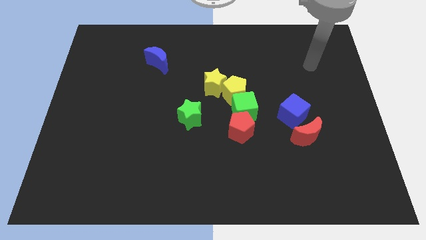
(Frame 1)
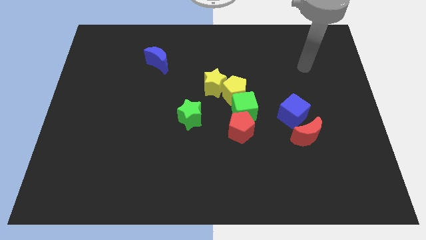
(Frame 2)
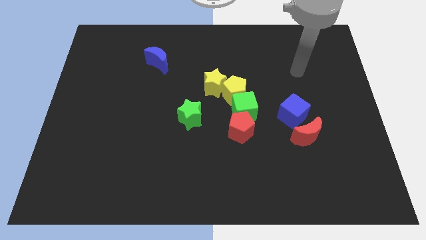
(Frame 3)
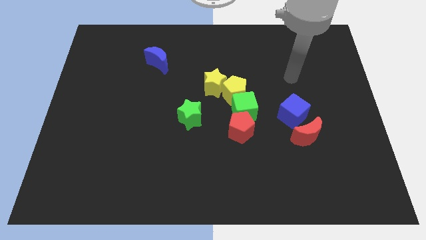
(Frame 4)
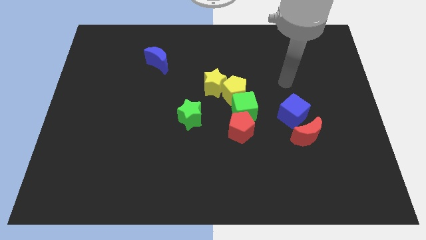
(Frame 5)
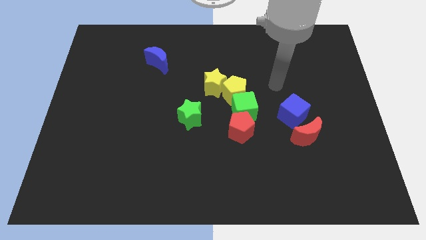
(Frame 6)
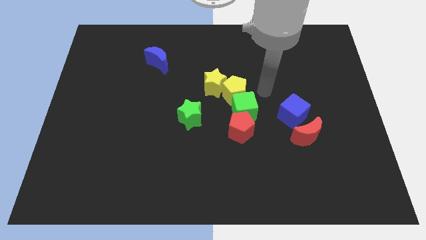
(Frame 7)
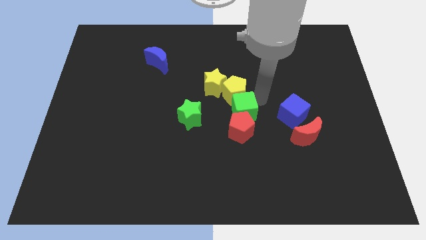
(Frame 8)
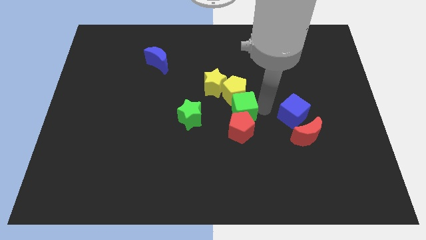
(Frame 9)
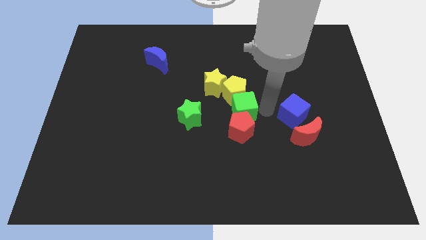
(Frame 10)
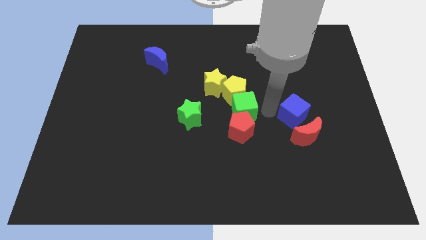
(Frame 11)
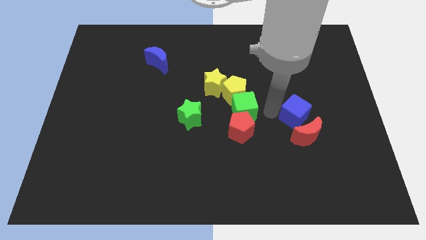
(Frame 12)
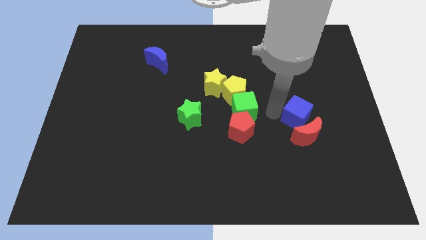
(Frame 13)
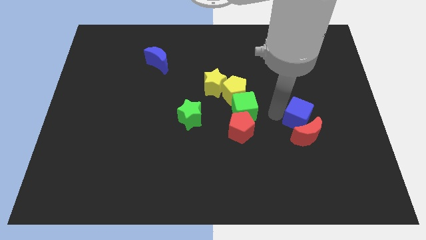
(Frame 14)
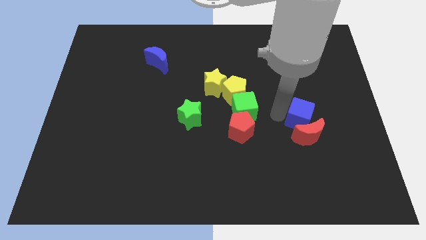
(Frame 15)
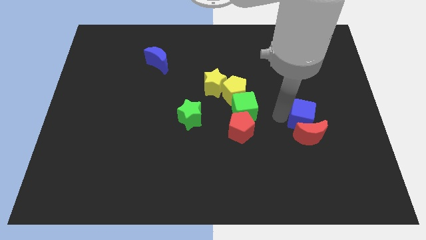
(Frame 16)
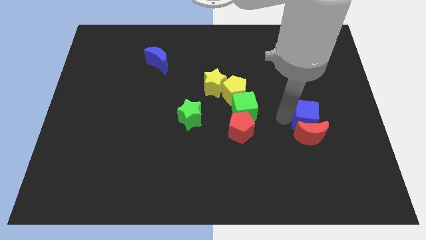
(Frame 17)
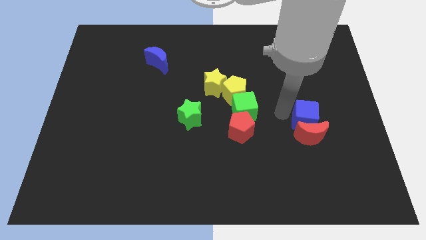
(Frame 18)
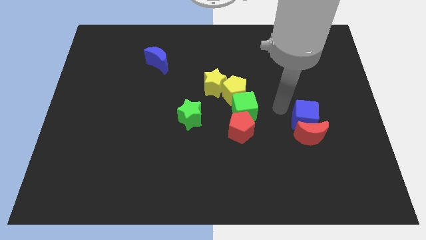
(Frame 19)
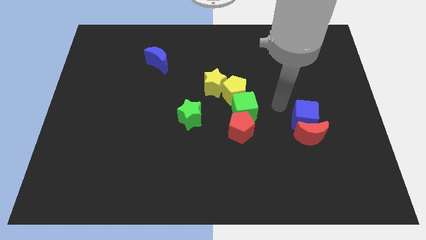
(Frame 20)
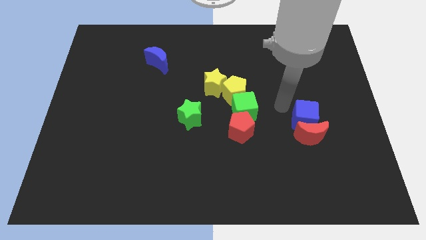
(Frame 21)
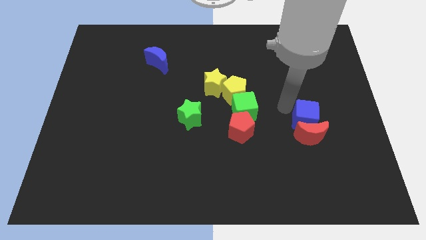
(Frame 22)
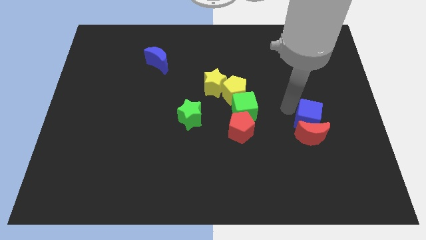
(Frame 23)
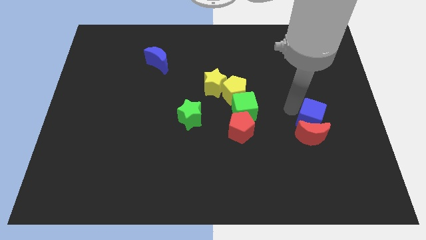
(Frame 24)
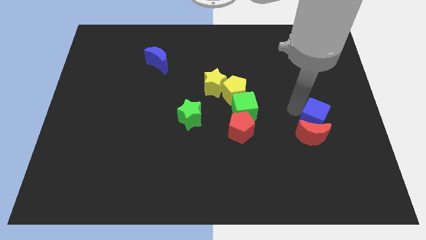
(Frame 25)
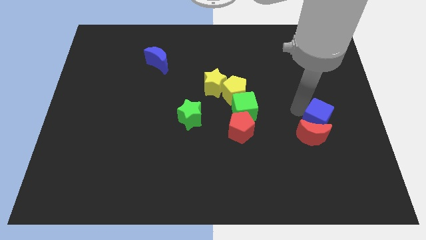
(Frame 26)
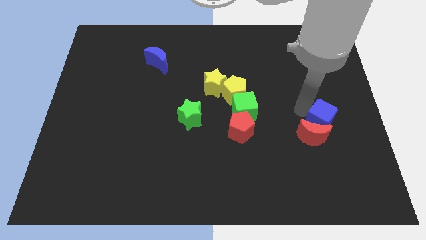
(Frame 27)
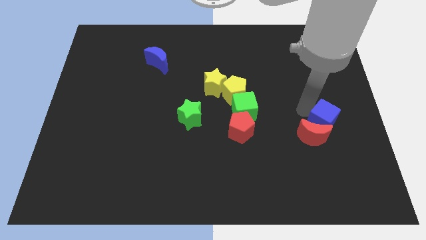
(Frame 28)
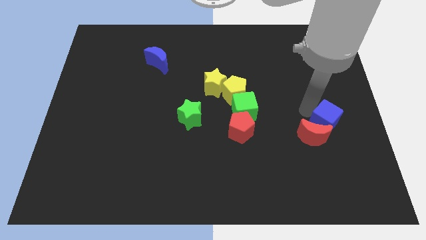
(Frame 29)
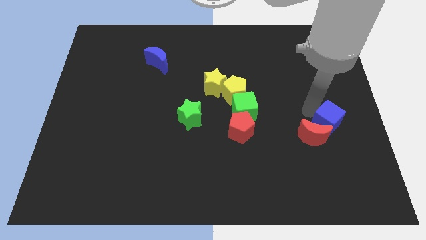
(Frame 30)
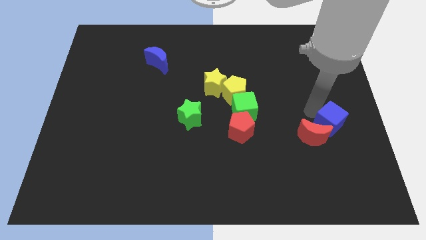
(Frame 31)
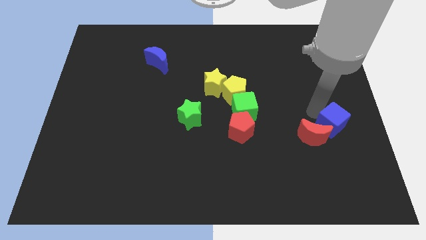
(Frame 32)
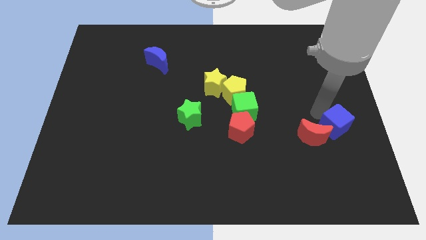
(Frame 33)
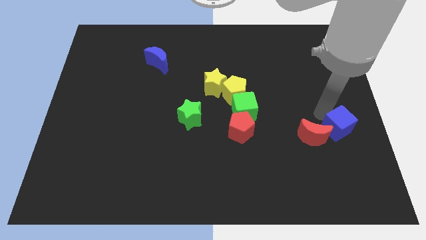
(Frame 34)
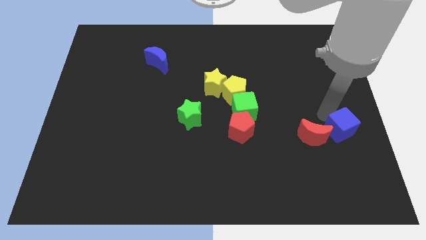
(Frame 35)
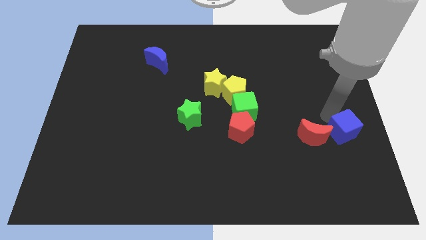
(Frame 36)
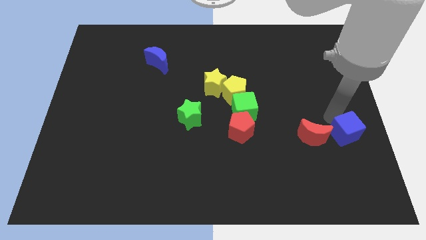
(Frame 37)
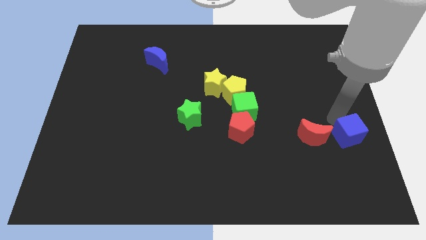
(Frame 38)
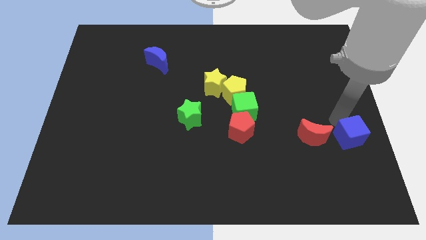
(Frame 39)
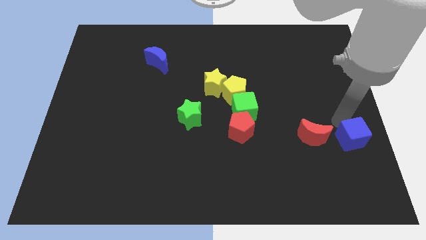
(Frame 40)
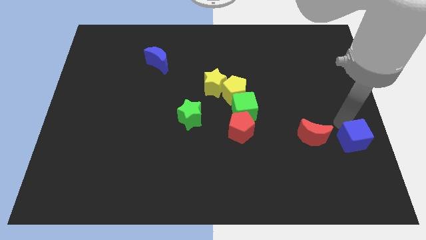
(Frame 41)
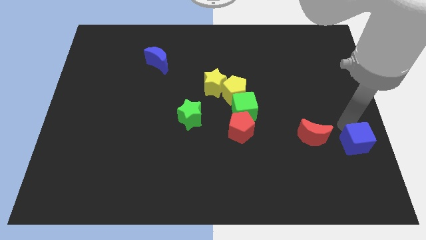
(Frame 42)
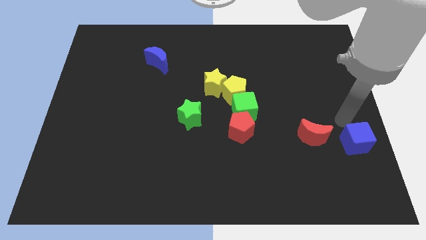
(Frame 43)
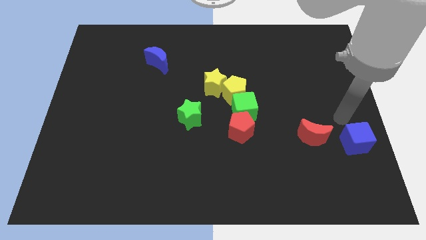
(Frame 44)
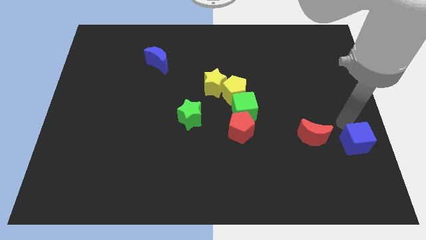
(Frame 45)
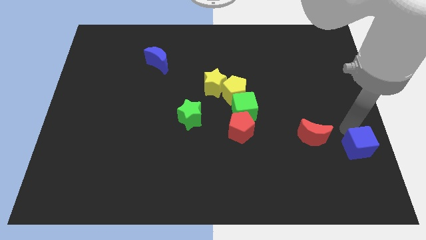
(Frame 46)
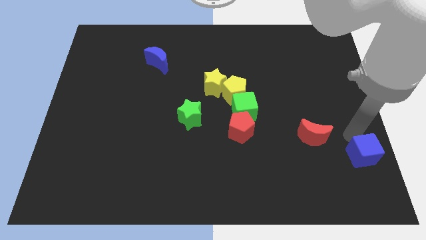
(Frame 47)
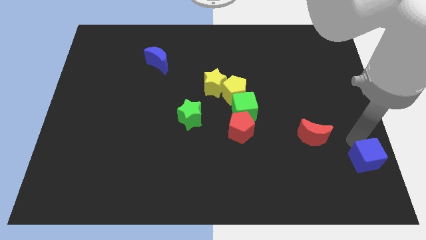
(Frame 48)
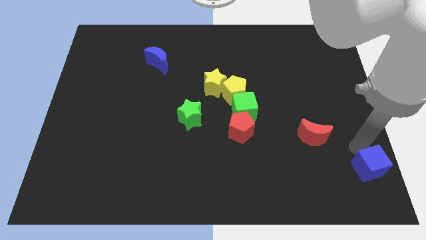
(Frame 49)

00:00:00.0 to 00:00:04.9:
put the blue cube to the bottom right corner

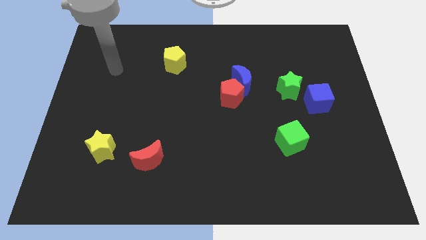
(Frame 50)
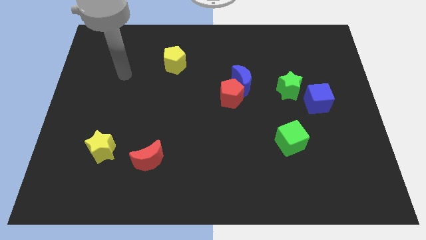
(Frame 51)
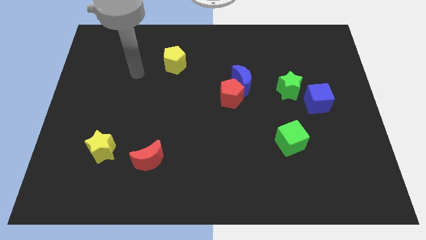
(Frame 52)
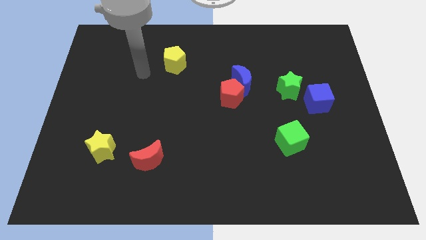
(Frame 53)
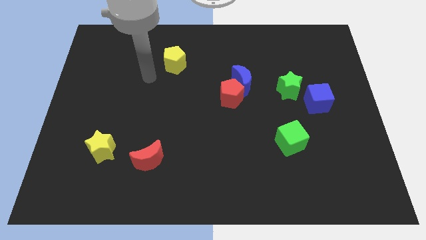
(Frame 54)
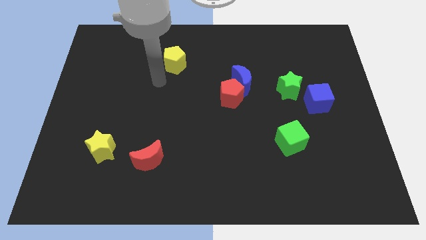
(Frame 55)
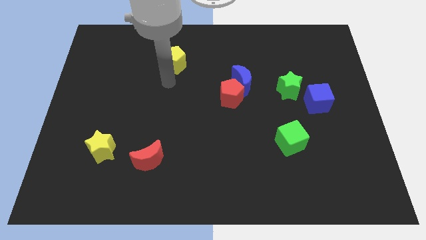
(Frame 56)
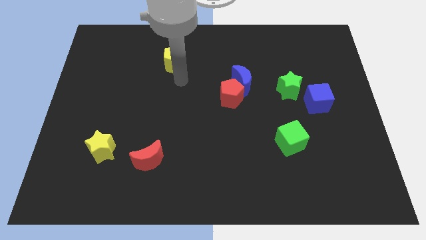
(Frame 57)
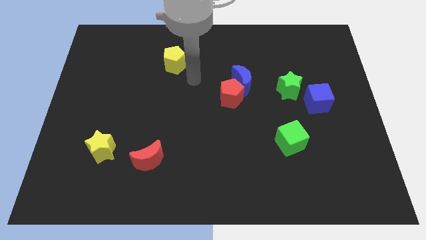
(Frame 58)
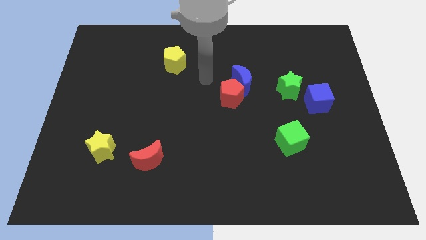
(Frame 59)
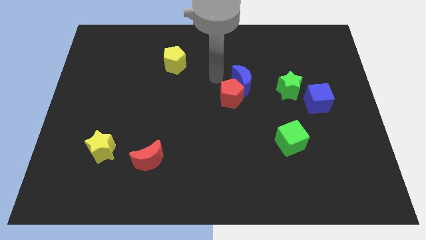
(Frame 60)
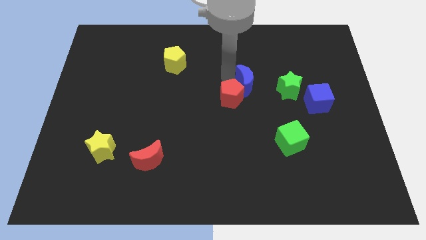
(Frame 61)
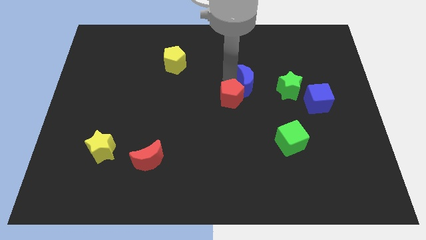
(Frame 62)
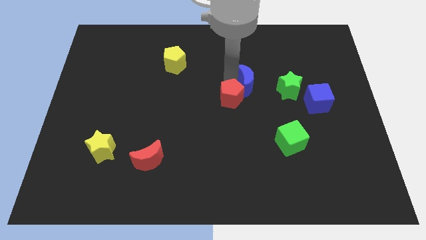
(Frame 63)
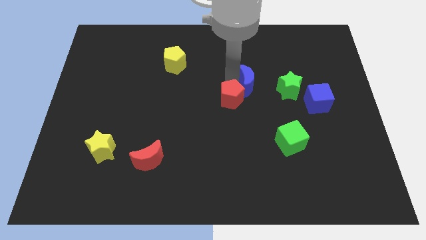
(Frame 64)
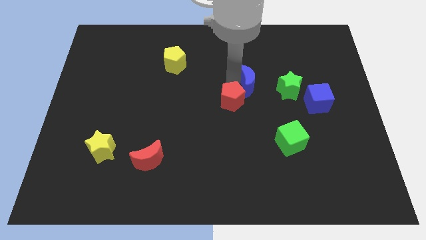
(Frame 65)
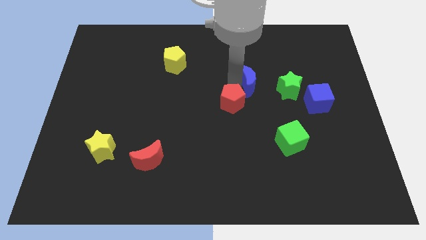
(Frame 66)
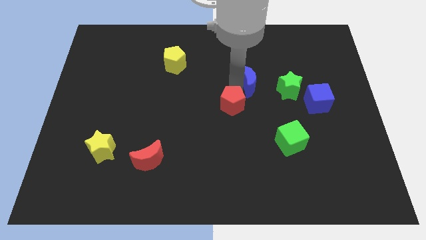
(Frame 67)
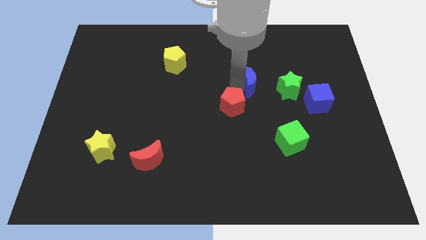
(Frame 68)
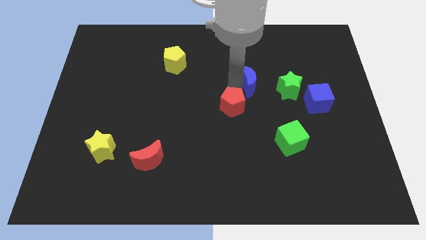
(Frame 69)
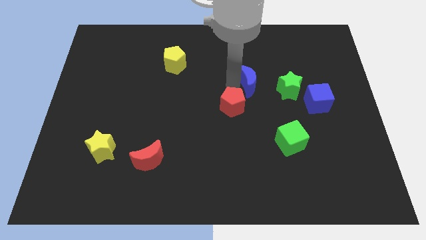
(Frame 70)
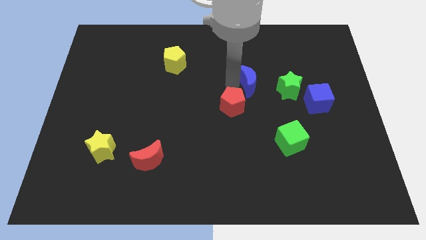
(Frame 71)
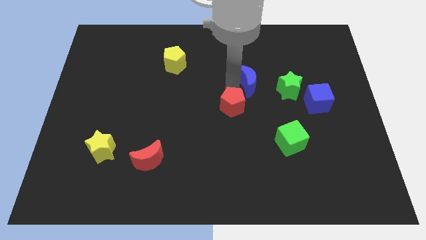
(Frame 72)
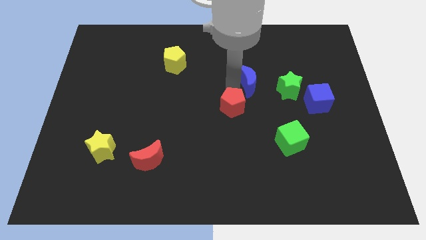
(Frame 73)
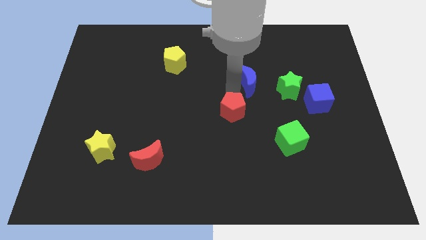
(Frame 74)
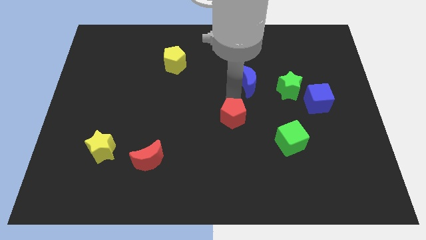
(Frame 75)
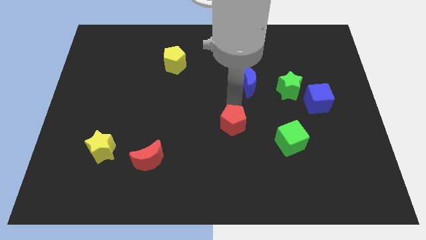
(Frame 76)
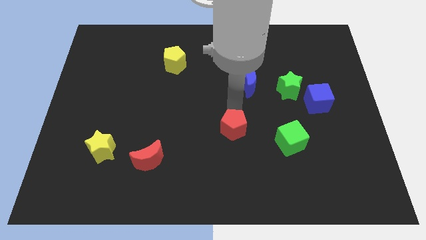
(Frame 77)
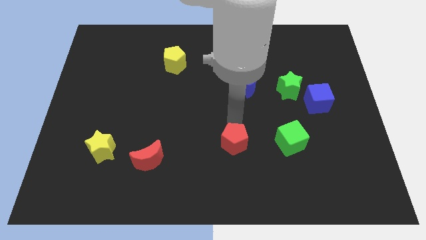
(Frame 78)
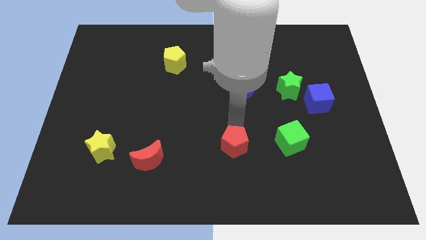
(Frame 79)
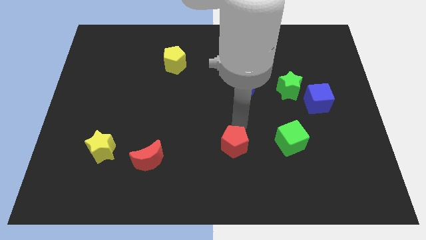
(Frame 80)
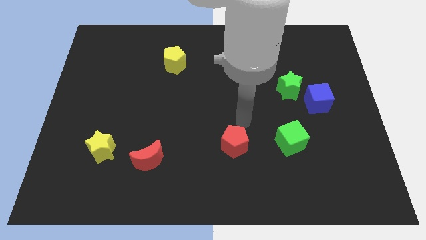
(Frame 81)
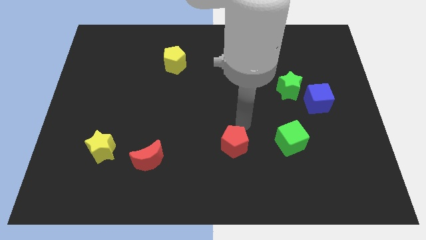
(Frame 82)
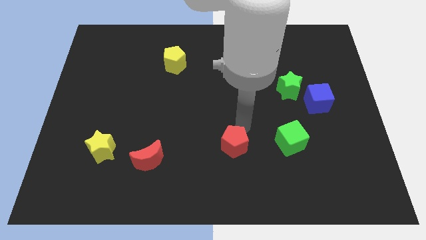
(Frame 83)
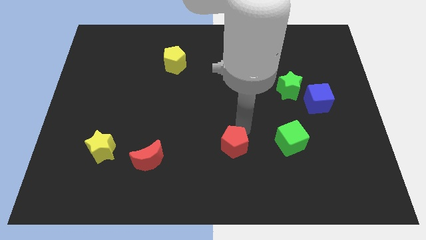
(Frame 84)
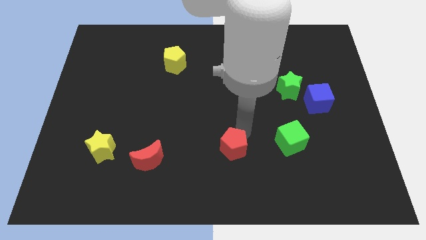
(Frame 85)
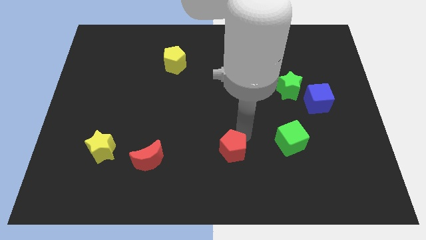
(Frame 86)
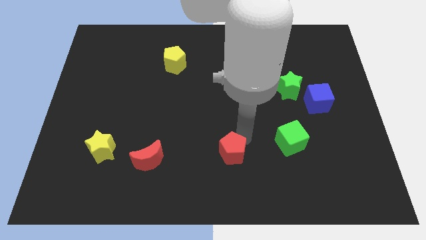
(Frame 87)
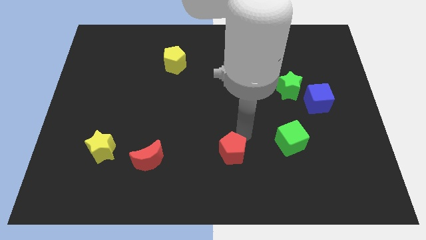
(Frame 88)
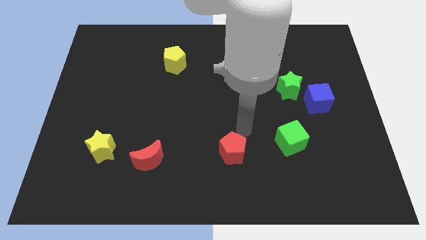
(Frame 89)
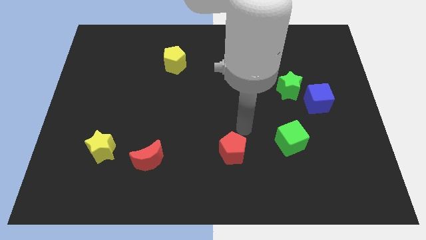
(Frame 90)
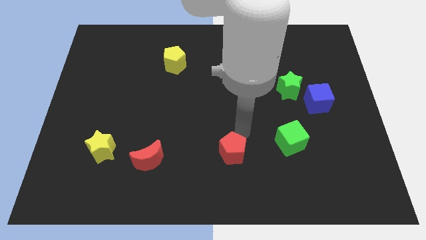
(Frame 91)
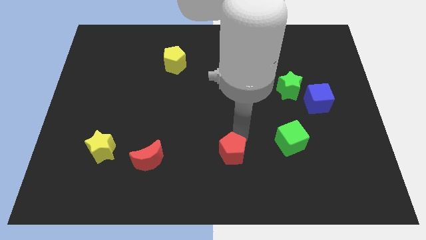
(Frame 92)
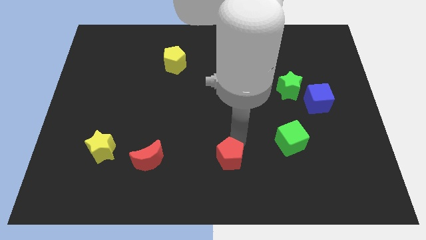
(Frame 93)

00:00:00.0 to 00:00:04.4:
slide the red pentagon to the bottom
